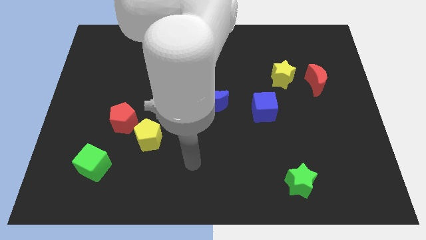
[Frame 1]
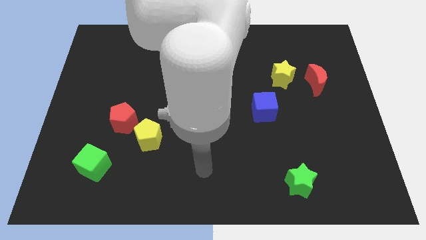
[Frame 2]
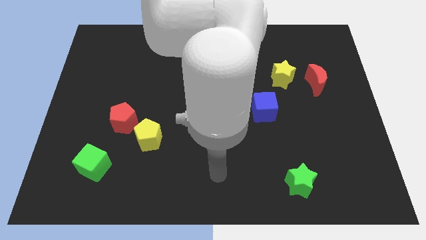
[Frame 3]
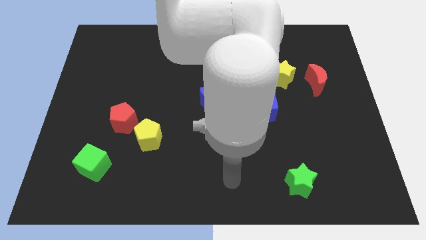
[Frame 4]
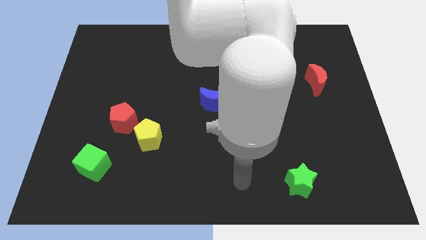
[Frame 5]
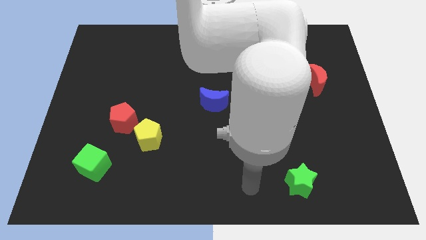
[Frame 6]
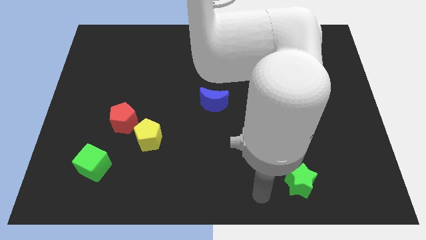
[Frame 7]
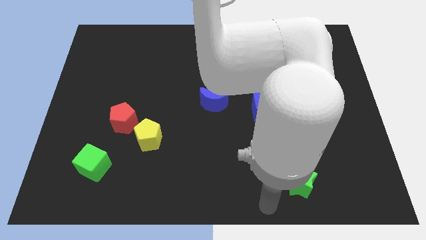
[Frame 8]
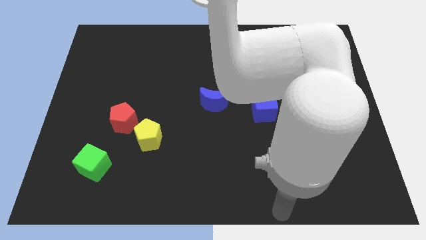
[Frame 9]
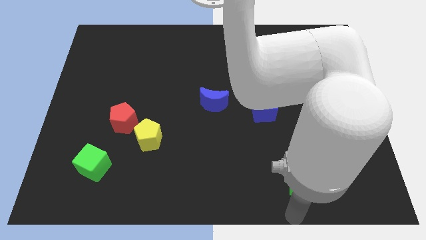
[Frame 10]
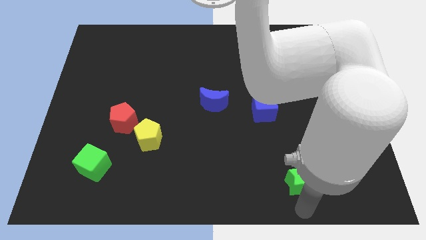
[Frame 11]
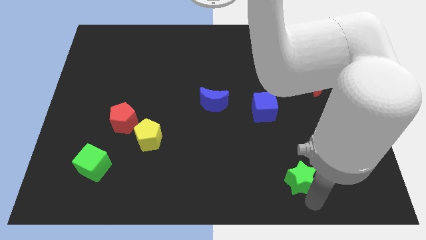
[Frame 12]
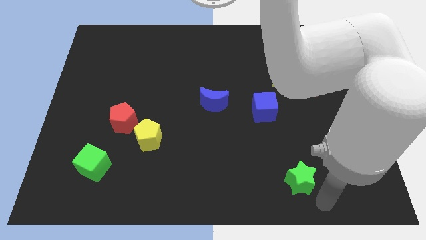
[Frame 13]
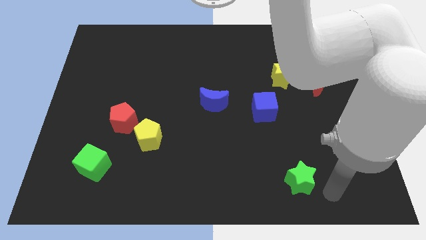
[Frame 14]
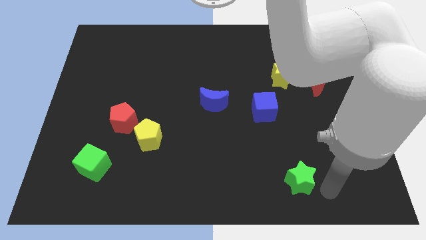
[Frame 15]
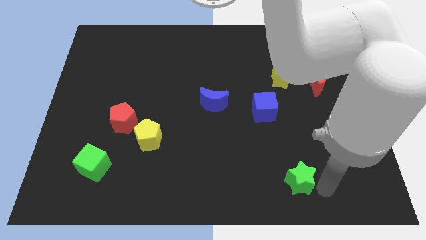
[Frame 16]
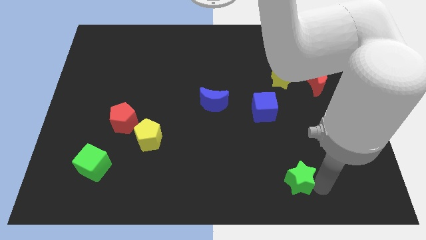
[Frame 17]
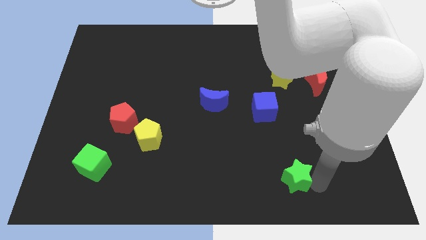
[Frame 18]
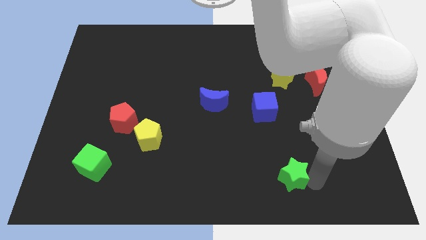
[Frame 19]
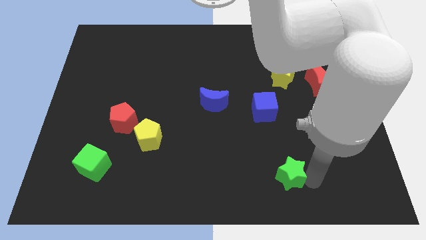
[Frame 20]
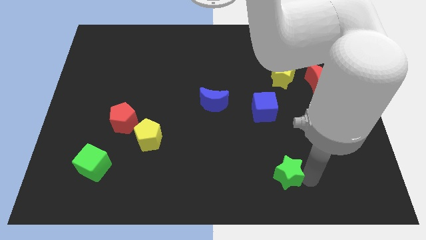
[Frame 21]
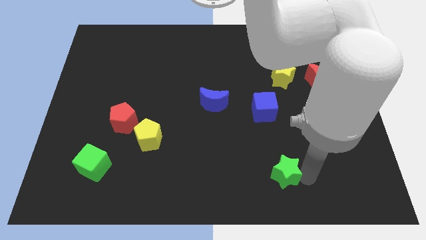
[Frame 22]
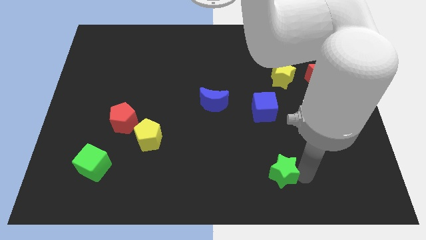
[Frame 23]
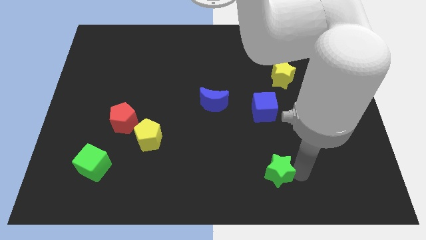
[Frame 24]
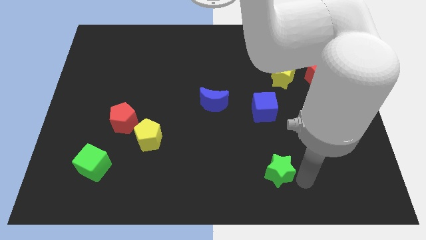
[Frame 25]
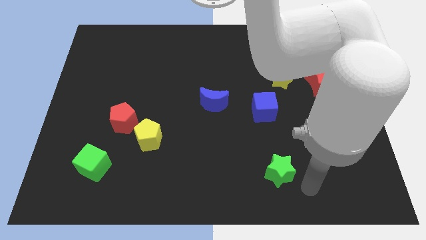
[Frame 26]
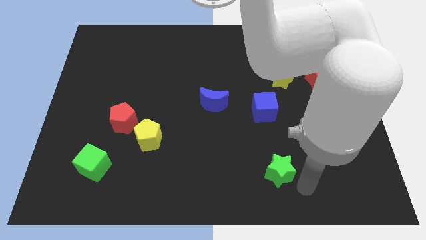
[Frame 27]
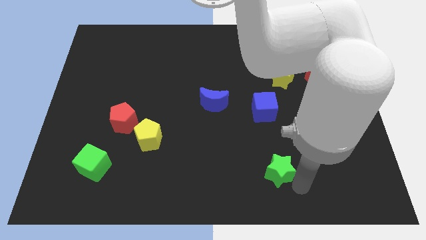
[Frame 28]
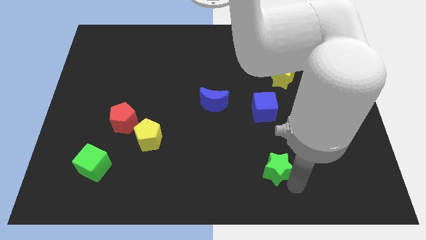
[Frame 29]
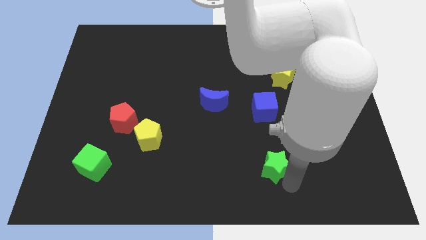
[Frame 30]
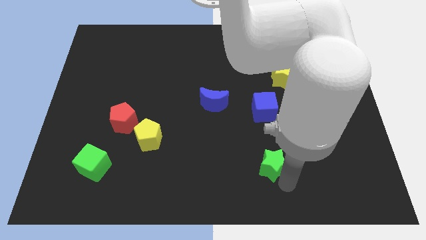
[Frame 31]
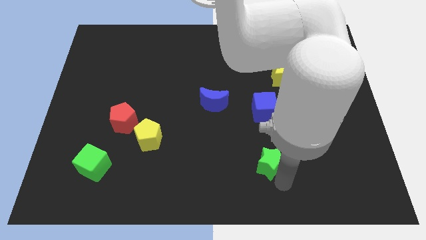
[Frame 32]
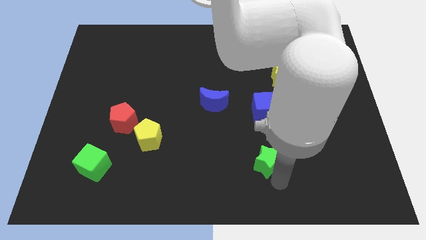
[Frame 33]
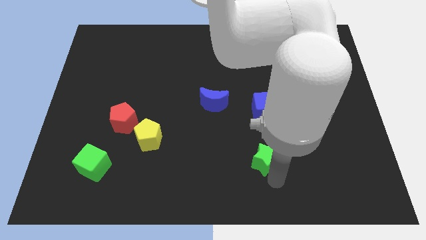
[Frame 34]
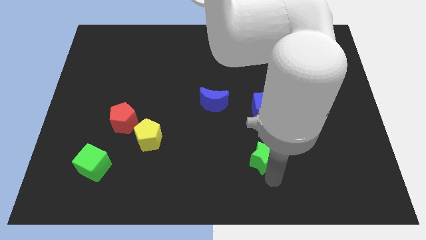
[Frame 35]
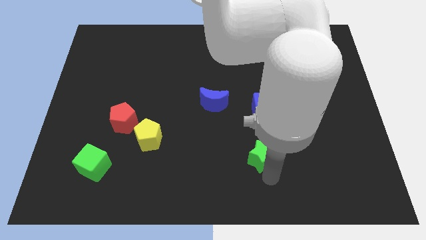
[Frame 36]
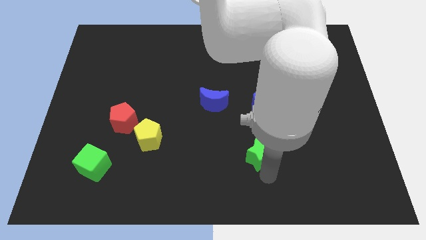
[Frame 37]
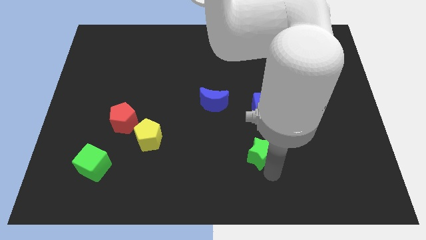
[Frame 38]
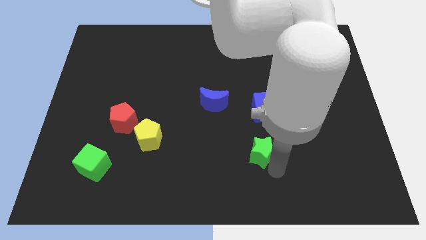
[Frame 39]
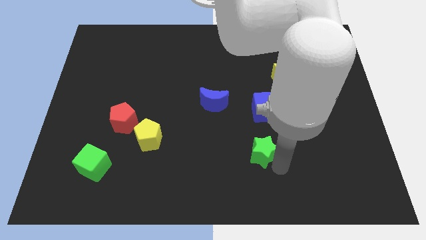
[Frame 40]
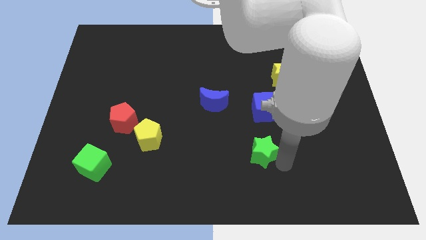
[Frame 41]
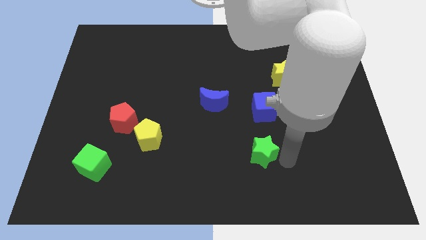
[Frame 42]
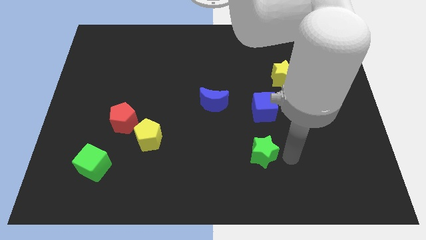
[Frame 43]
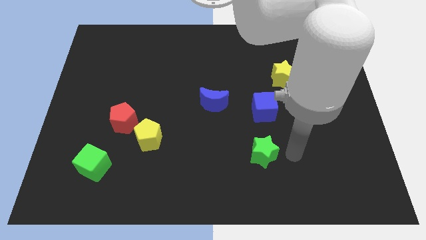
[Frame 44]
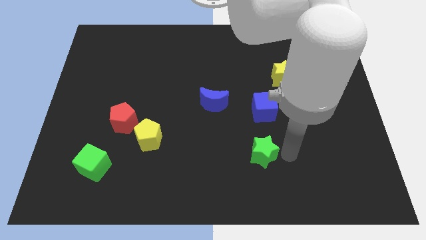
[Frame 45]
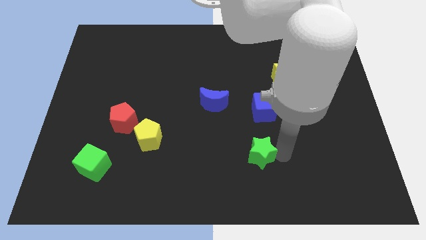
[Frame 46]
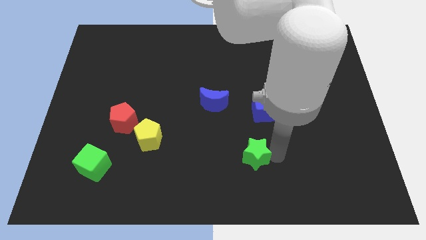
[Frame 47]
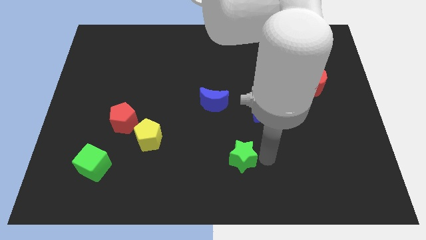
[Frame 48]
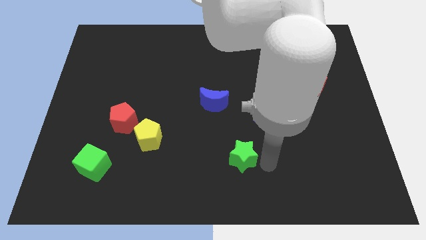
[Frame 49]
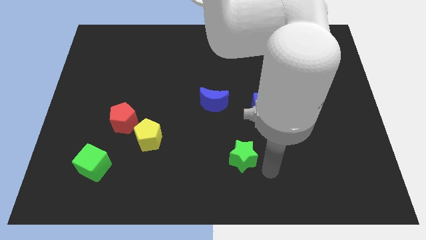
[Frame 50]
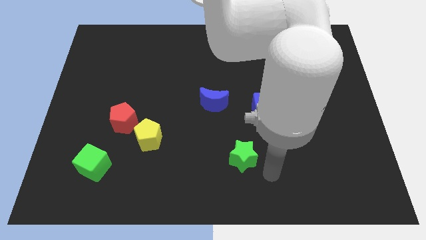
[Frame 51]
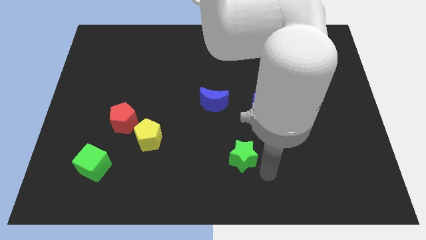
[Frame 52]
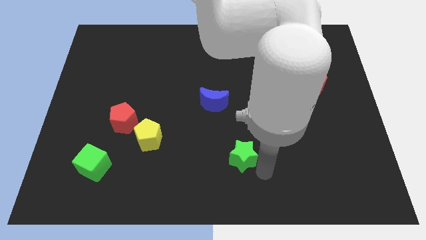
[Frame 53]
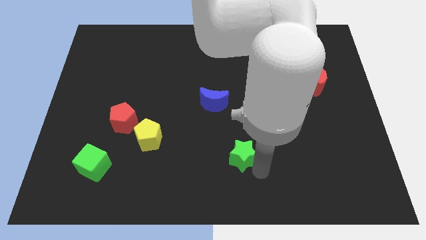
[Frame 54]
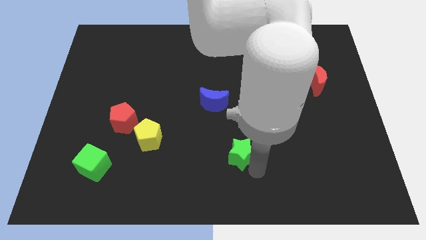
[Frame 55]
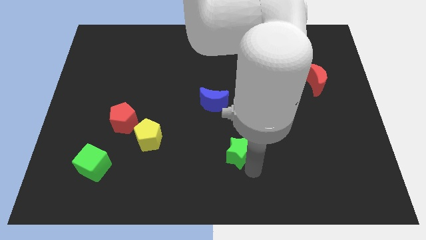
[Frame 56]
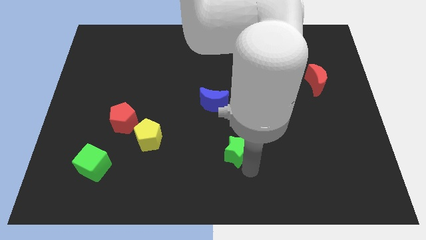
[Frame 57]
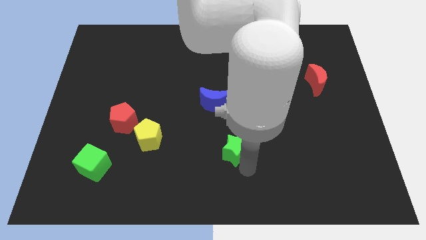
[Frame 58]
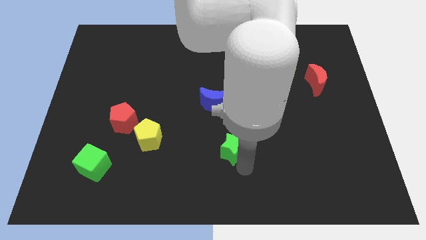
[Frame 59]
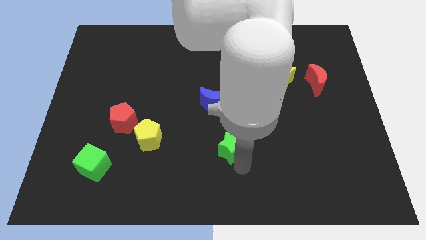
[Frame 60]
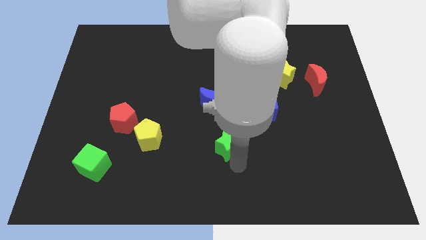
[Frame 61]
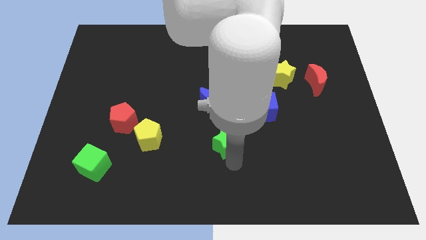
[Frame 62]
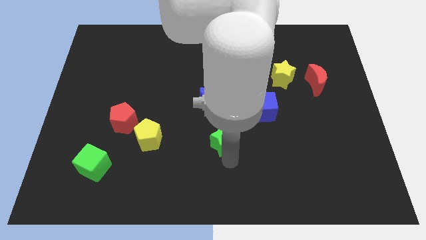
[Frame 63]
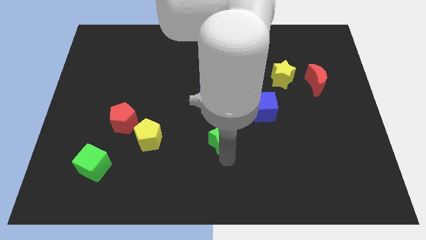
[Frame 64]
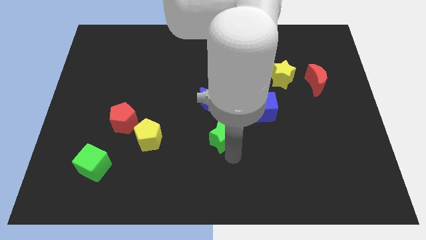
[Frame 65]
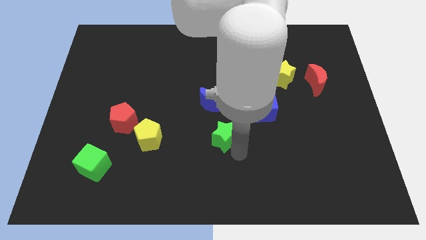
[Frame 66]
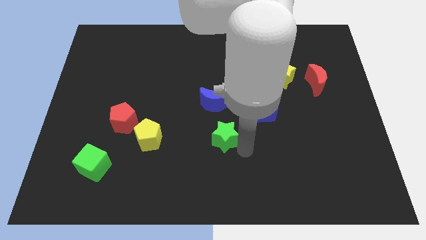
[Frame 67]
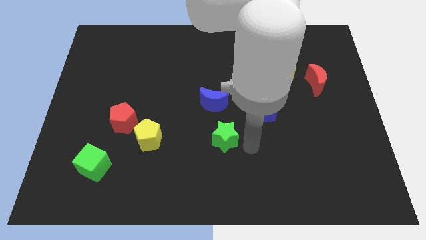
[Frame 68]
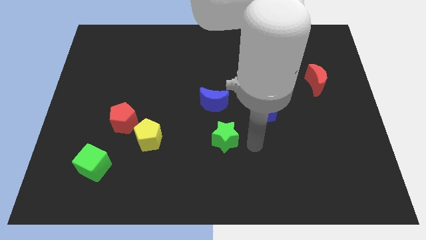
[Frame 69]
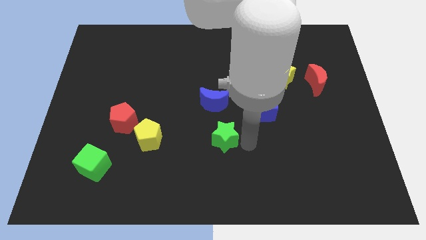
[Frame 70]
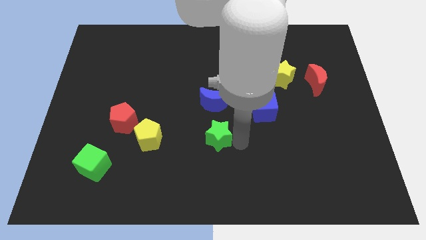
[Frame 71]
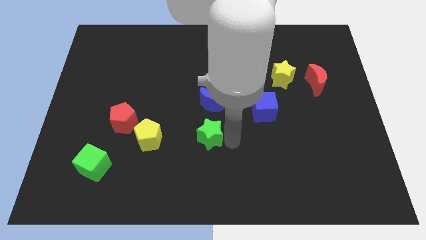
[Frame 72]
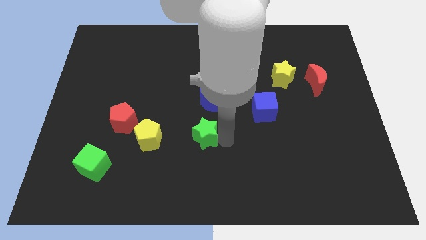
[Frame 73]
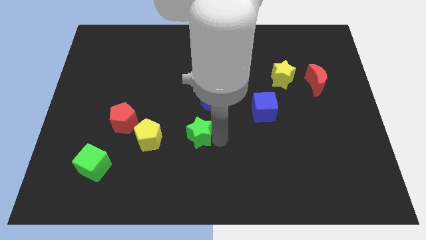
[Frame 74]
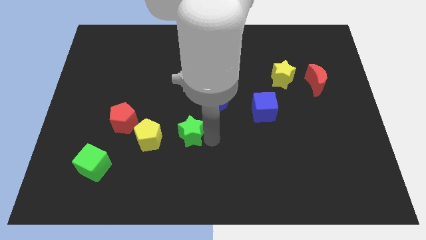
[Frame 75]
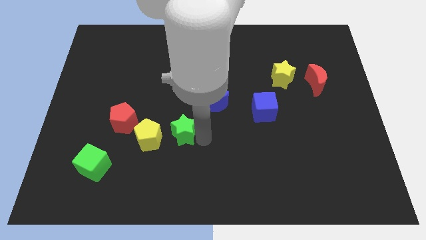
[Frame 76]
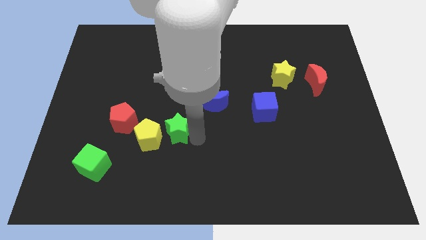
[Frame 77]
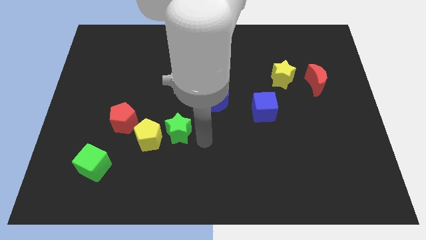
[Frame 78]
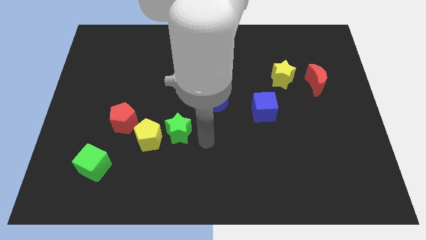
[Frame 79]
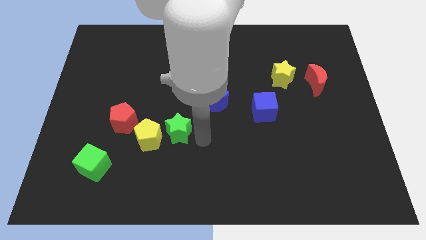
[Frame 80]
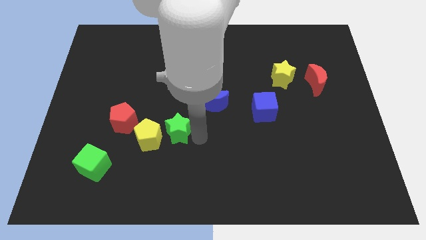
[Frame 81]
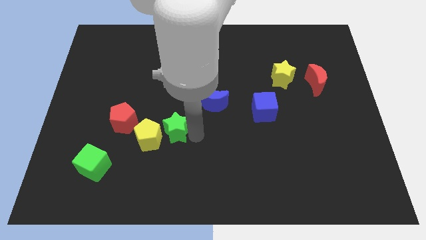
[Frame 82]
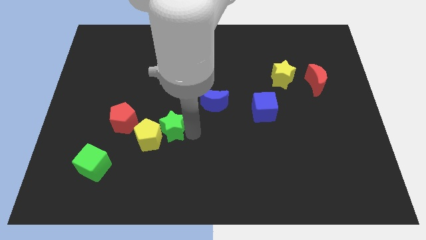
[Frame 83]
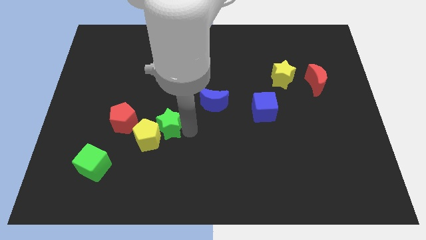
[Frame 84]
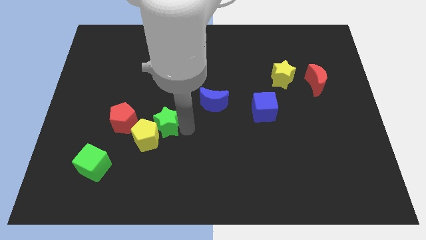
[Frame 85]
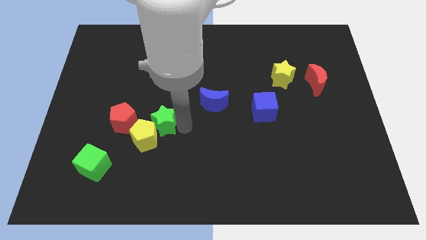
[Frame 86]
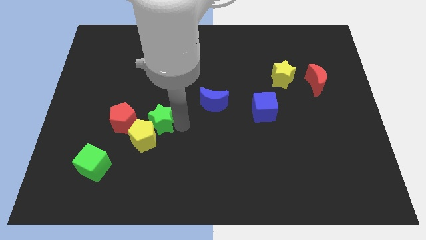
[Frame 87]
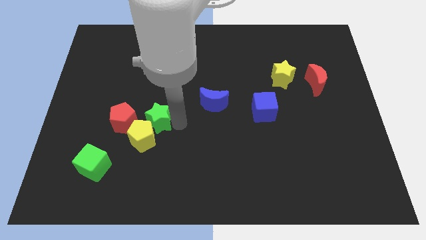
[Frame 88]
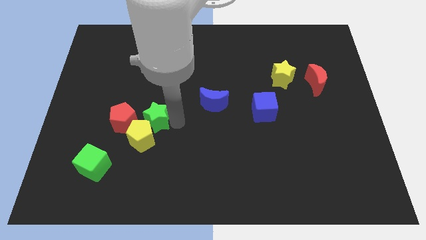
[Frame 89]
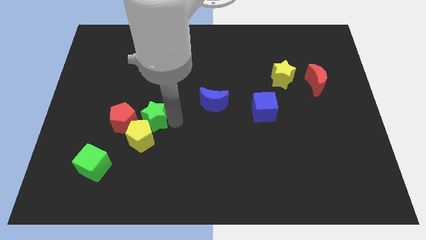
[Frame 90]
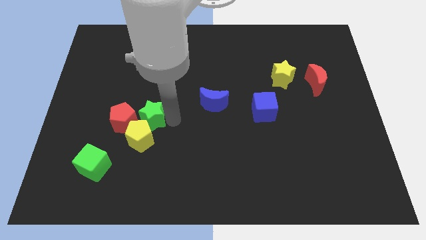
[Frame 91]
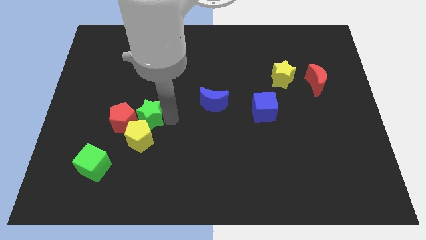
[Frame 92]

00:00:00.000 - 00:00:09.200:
move the green star towards the red pentagon
